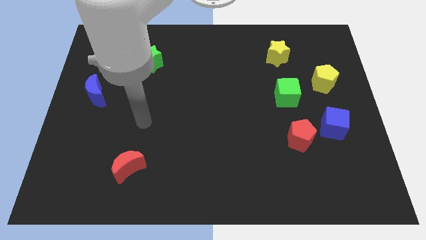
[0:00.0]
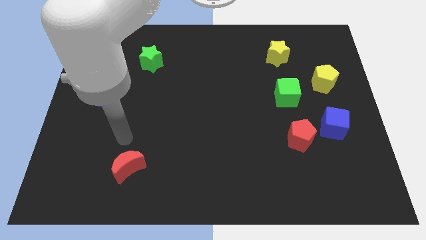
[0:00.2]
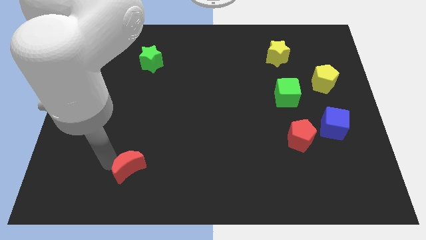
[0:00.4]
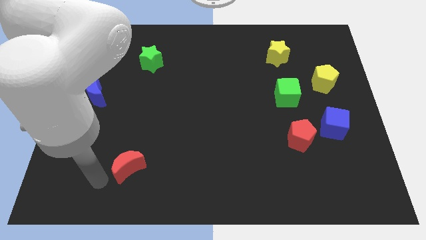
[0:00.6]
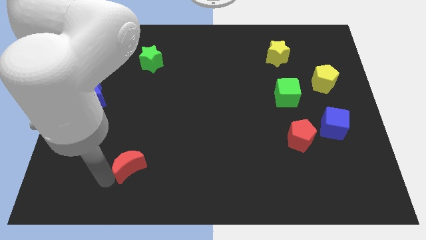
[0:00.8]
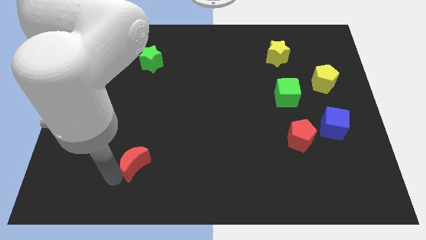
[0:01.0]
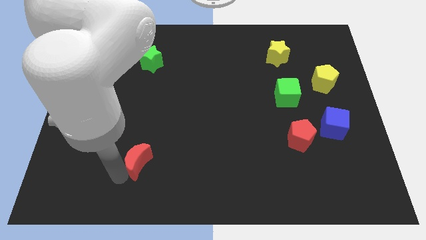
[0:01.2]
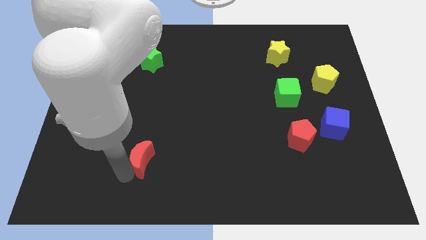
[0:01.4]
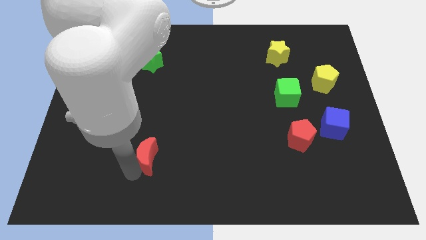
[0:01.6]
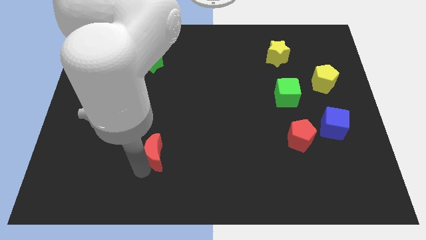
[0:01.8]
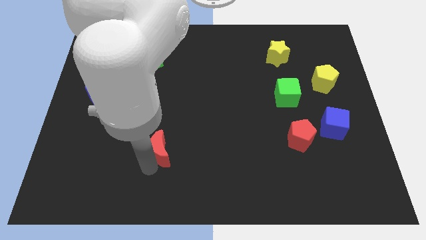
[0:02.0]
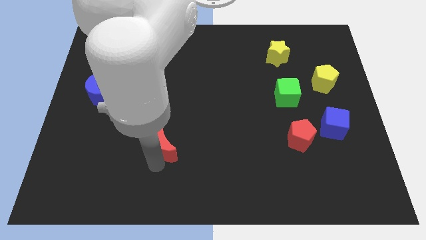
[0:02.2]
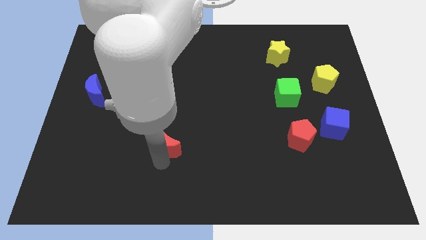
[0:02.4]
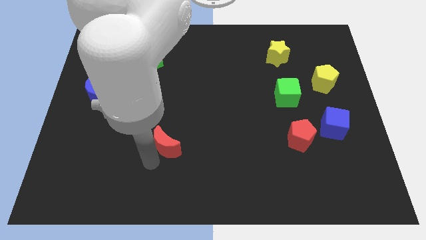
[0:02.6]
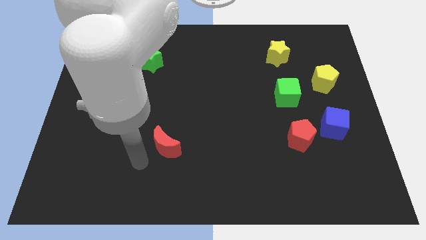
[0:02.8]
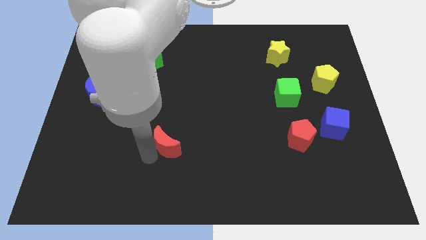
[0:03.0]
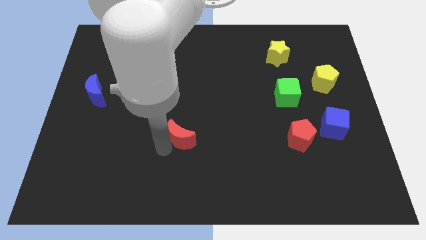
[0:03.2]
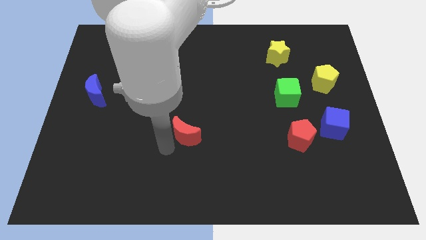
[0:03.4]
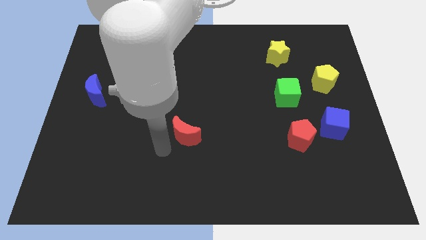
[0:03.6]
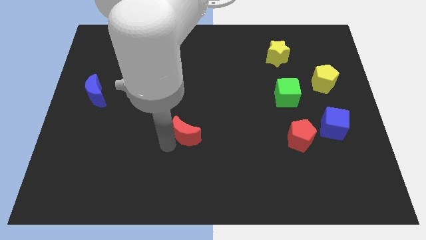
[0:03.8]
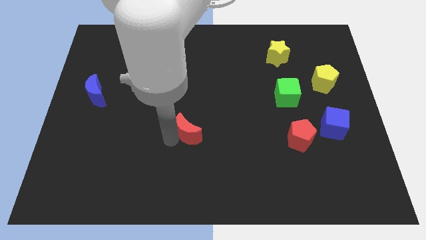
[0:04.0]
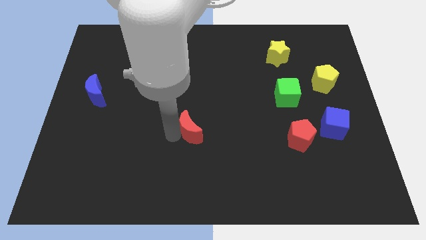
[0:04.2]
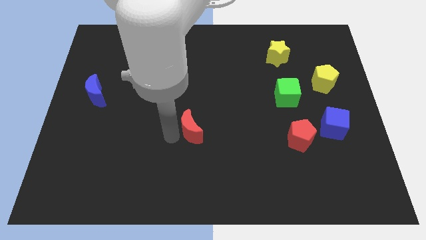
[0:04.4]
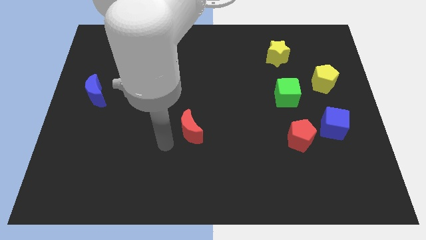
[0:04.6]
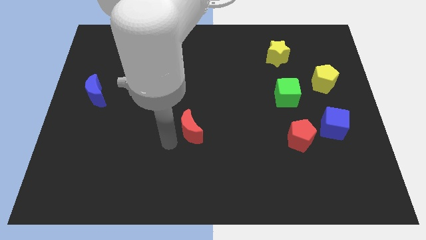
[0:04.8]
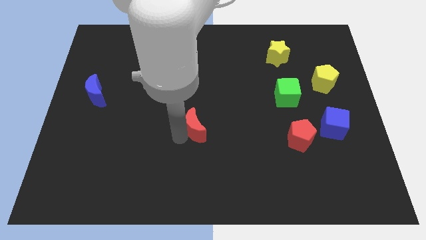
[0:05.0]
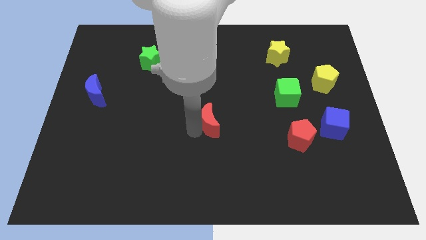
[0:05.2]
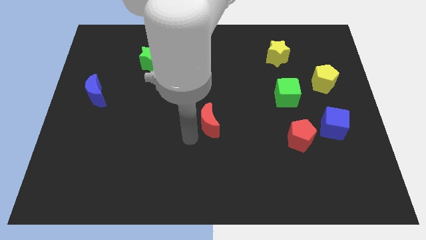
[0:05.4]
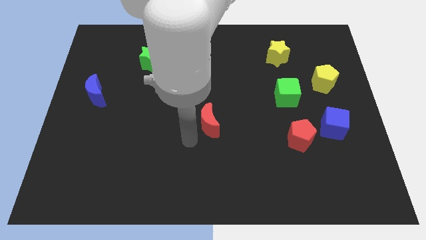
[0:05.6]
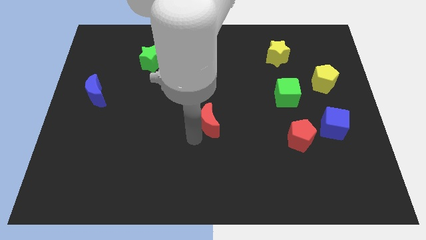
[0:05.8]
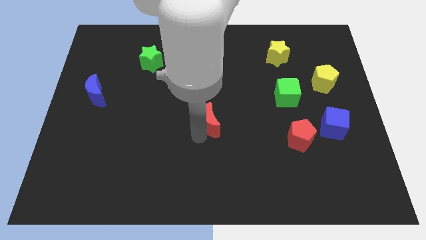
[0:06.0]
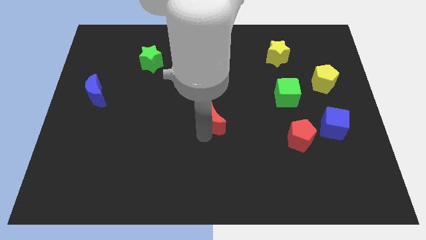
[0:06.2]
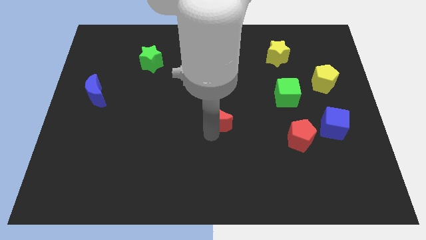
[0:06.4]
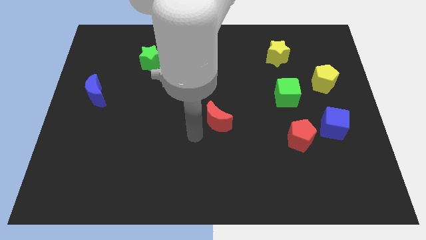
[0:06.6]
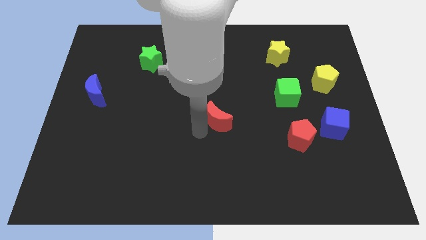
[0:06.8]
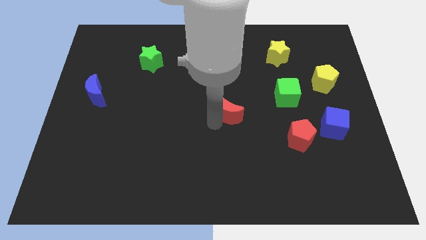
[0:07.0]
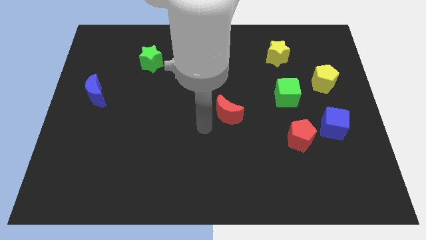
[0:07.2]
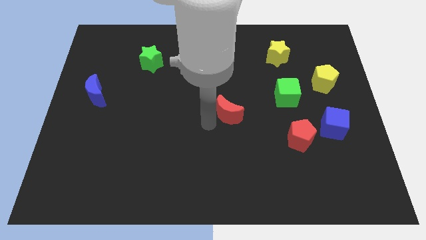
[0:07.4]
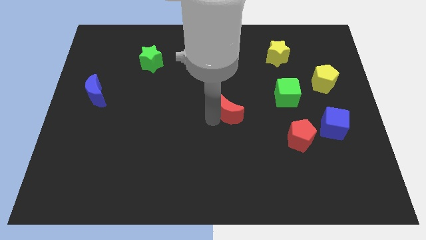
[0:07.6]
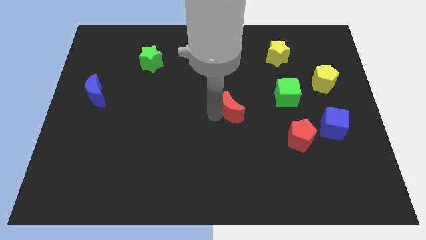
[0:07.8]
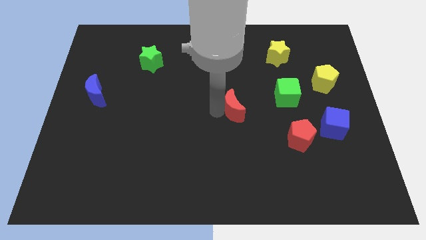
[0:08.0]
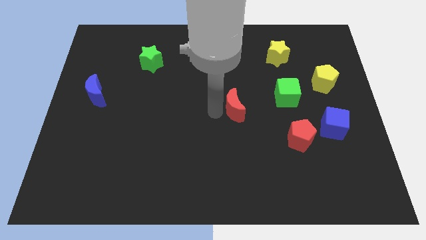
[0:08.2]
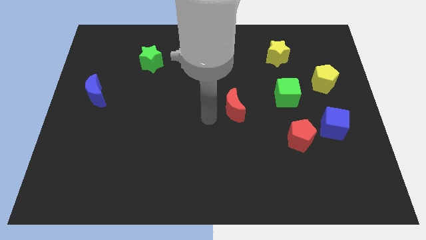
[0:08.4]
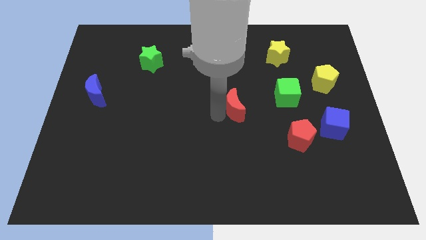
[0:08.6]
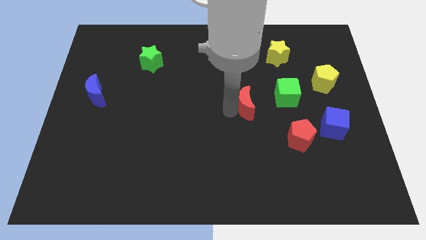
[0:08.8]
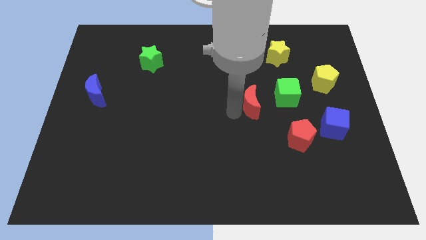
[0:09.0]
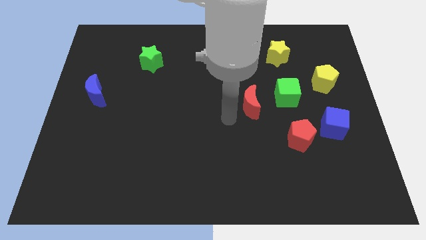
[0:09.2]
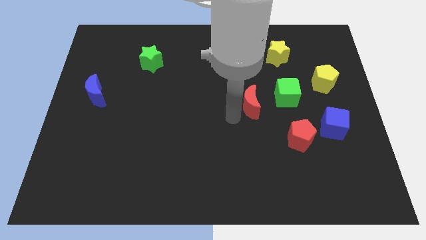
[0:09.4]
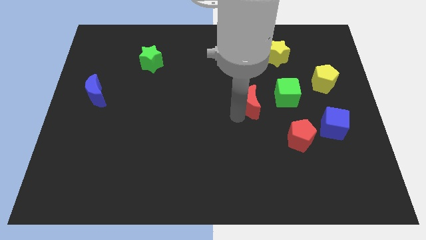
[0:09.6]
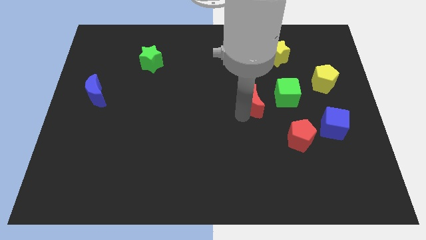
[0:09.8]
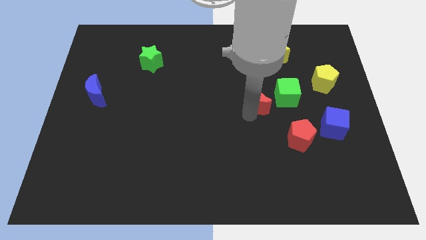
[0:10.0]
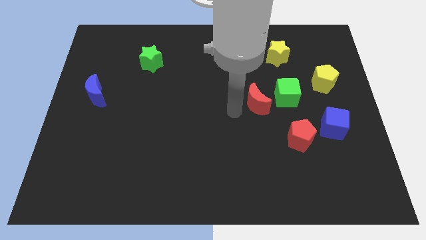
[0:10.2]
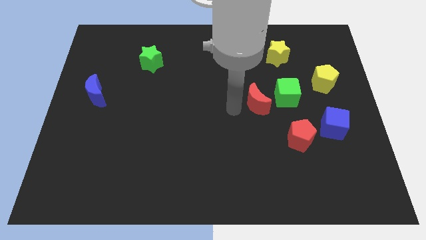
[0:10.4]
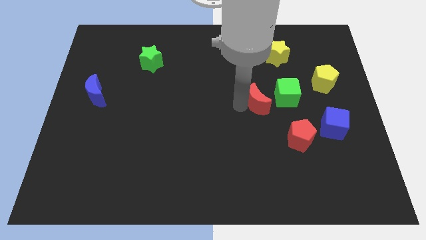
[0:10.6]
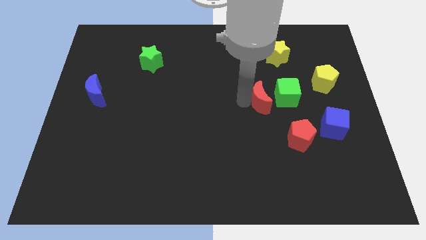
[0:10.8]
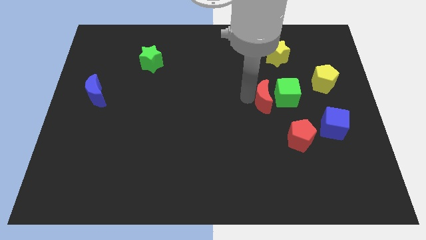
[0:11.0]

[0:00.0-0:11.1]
put the red moon close to the green cube

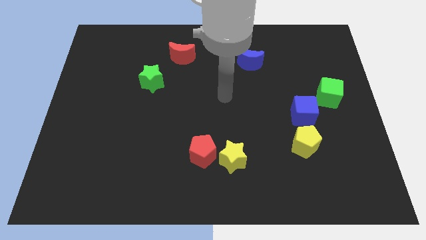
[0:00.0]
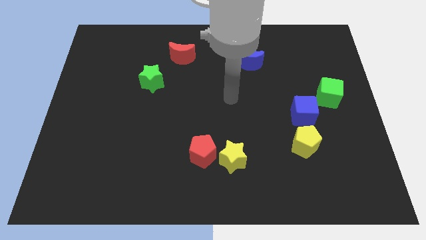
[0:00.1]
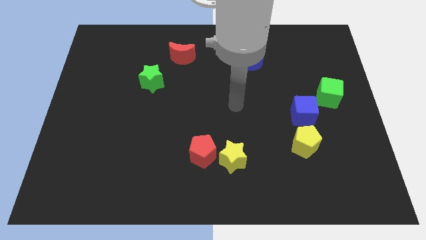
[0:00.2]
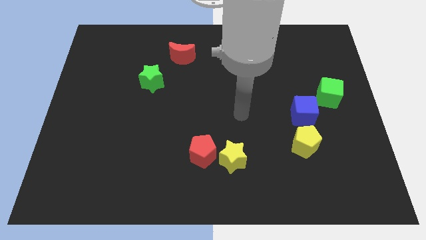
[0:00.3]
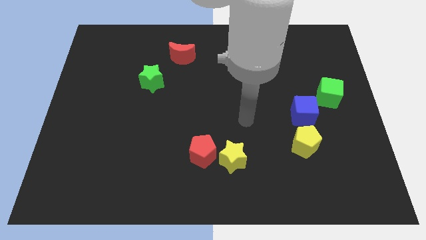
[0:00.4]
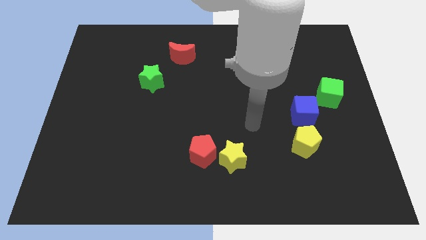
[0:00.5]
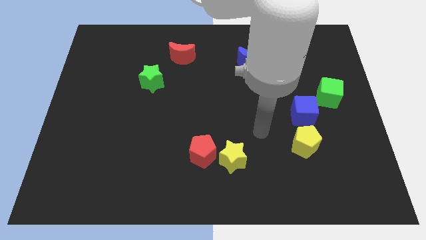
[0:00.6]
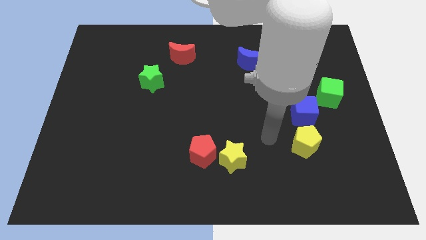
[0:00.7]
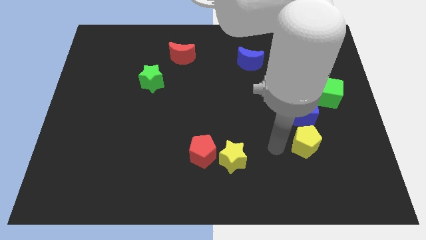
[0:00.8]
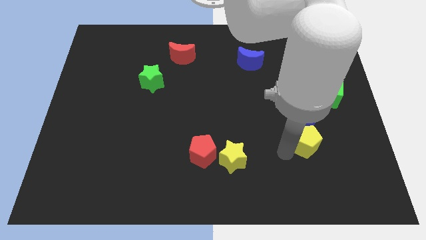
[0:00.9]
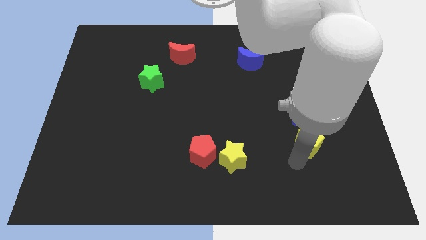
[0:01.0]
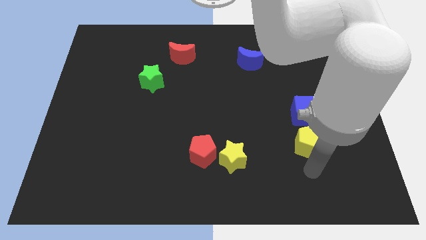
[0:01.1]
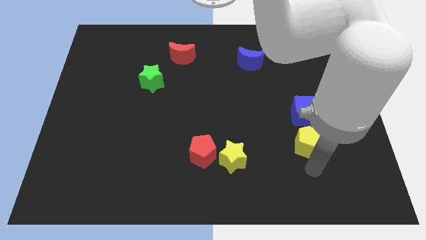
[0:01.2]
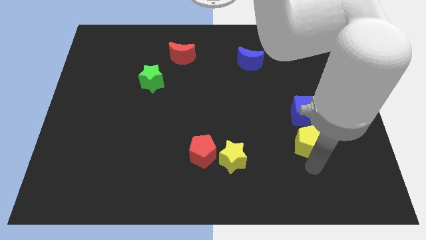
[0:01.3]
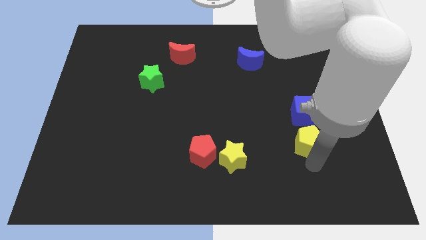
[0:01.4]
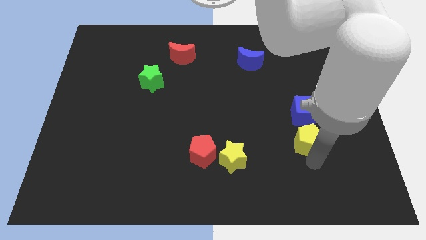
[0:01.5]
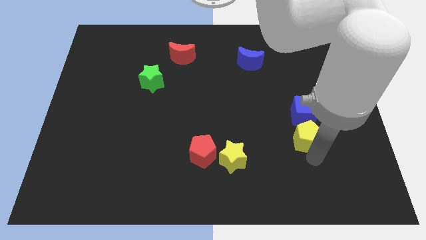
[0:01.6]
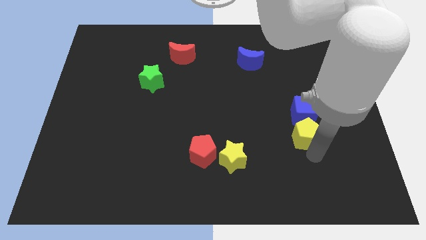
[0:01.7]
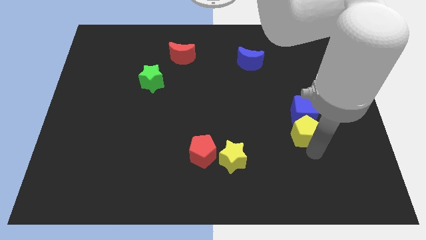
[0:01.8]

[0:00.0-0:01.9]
push the yellow pentagon next to the blue cube

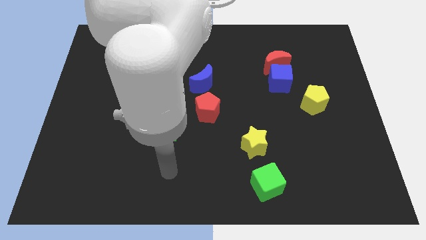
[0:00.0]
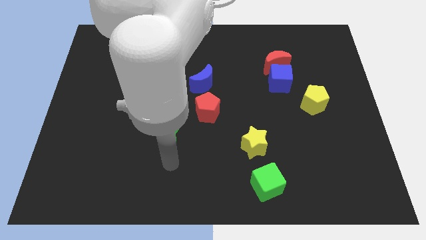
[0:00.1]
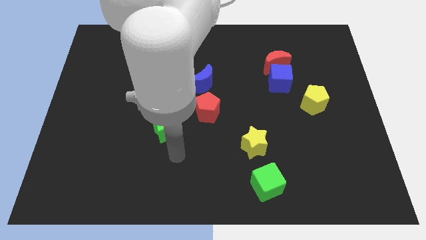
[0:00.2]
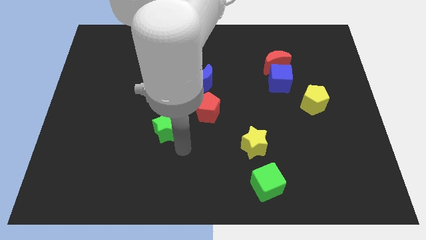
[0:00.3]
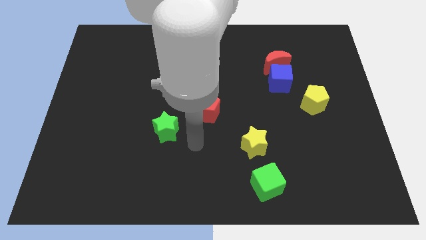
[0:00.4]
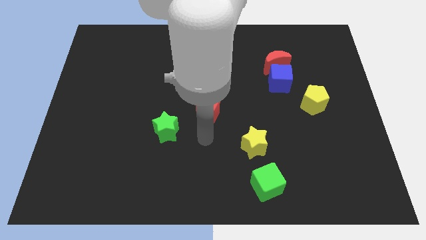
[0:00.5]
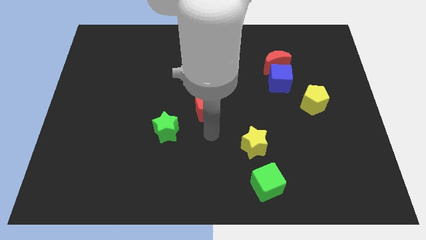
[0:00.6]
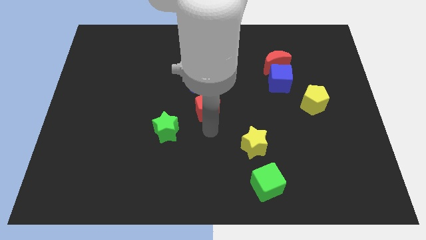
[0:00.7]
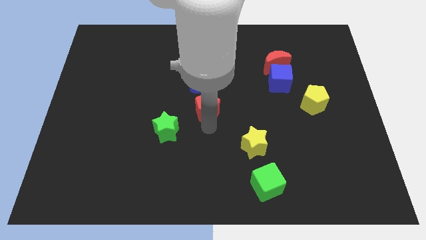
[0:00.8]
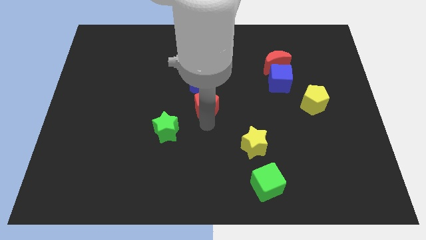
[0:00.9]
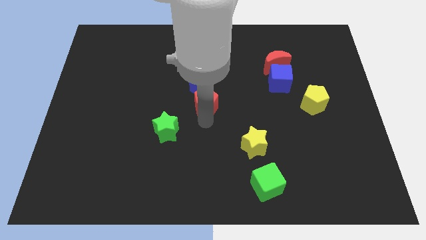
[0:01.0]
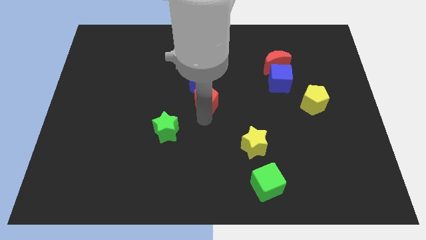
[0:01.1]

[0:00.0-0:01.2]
move the red pentagon next to the blue moon
